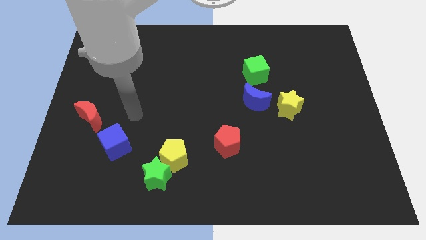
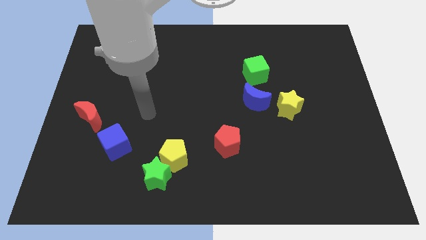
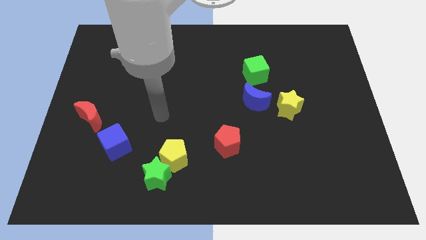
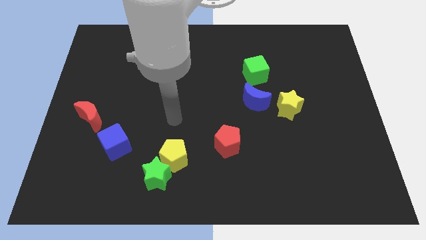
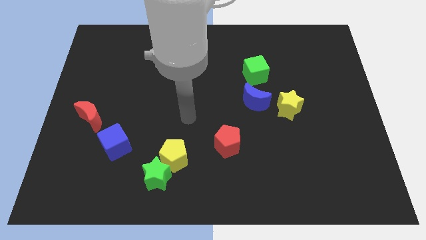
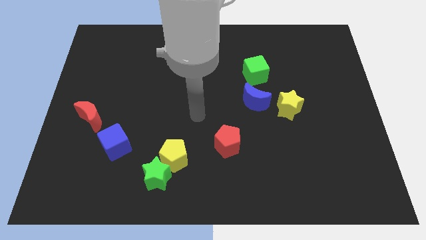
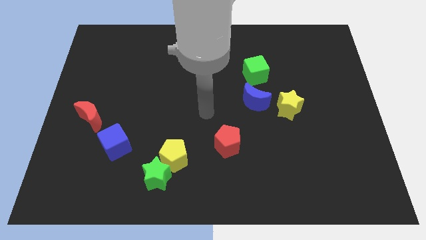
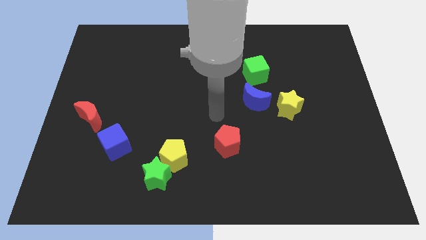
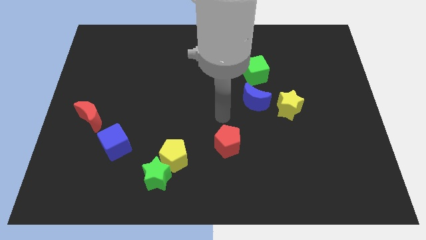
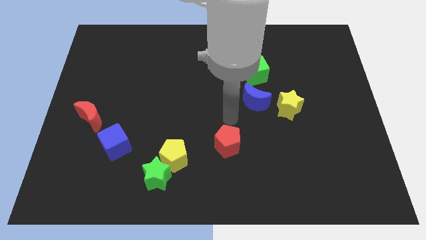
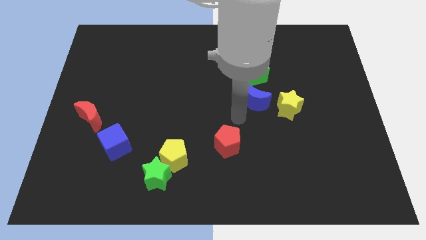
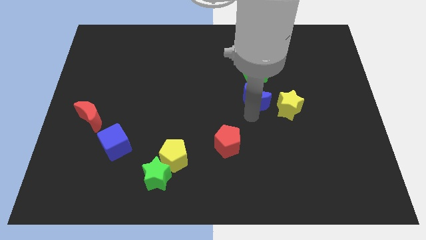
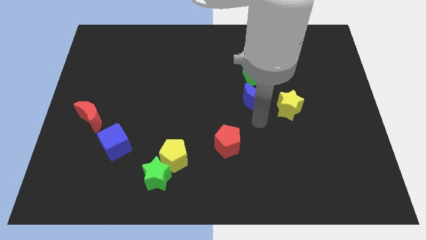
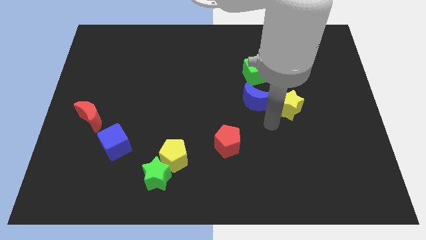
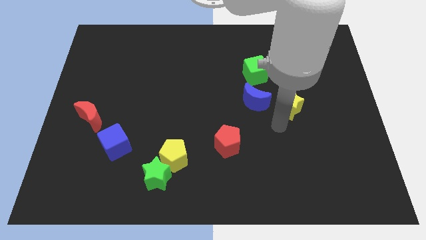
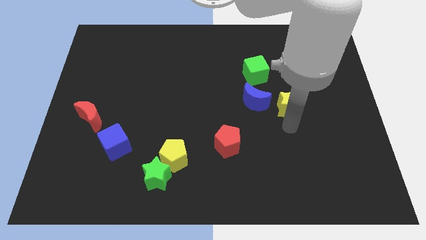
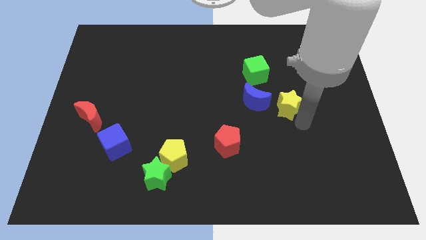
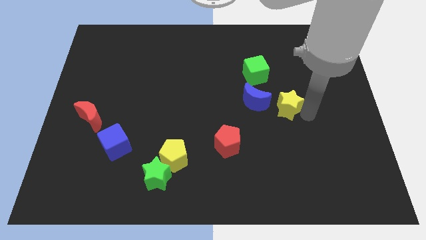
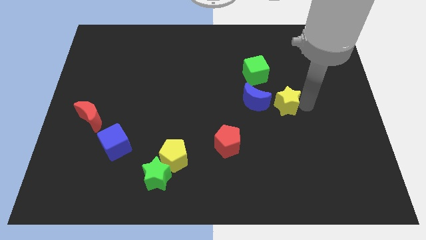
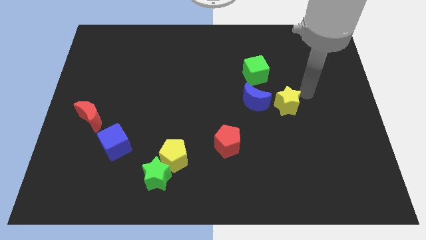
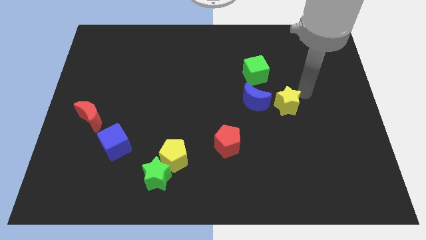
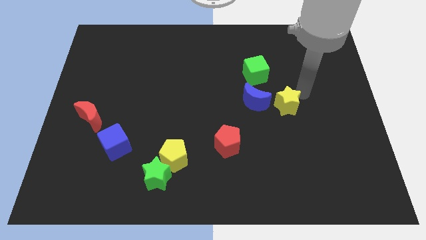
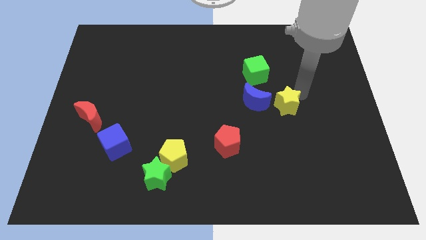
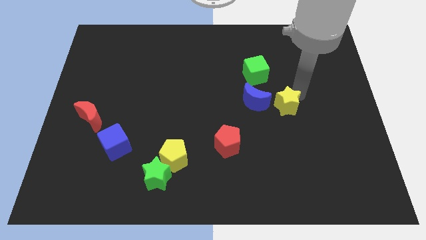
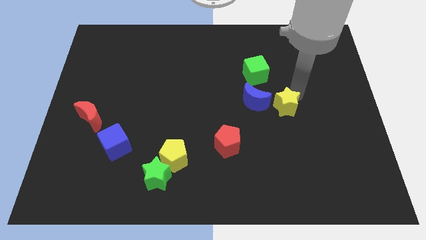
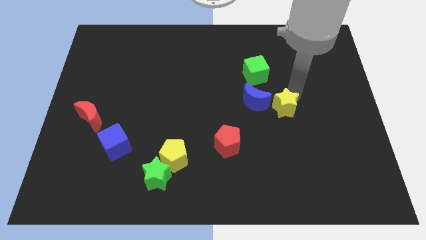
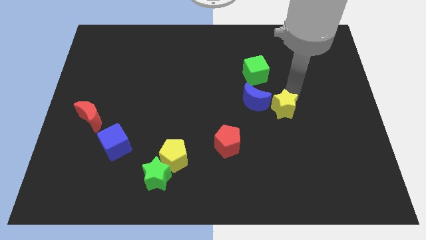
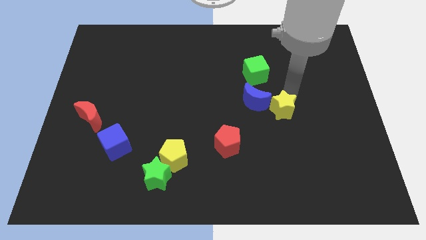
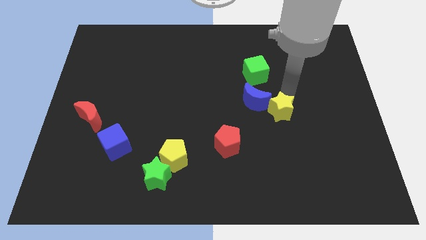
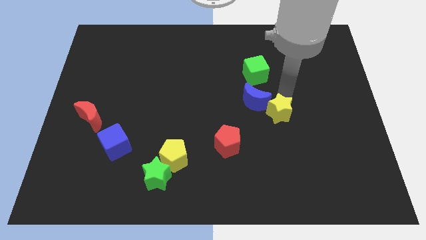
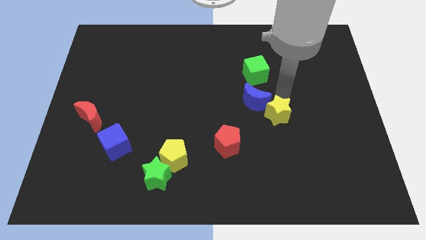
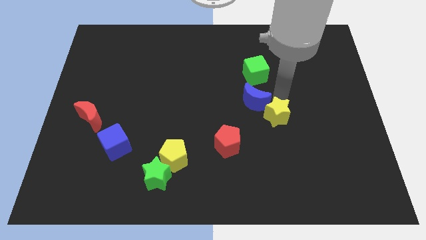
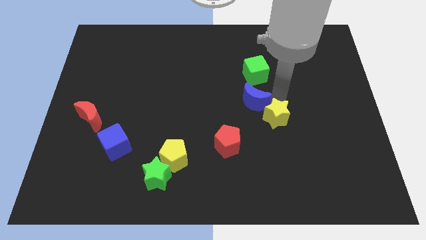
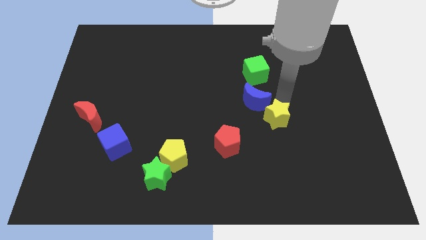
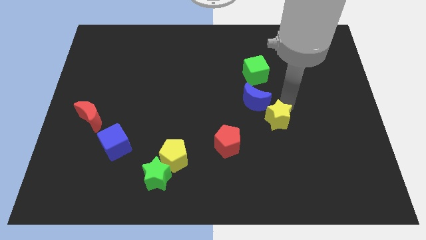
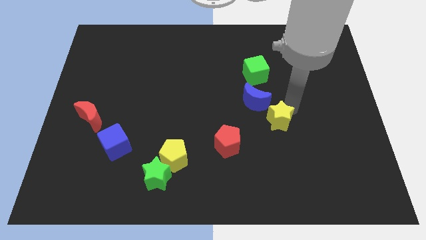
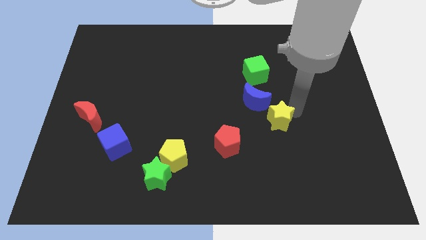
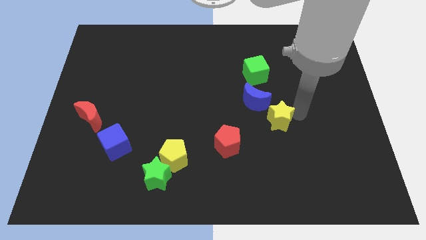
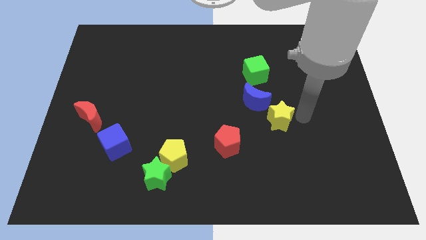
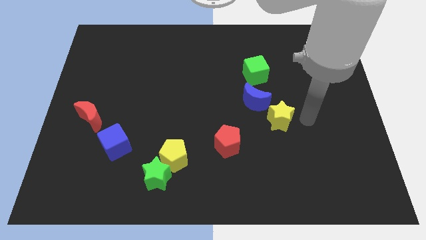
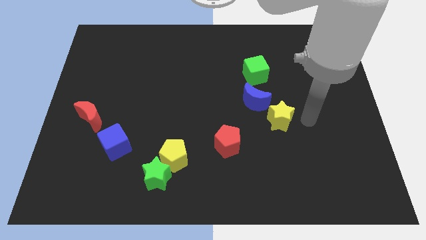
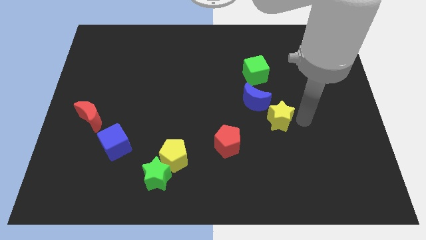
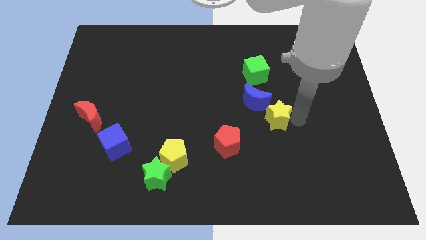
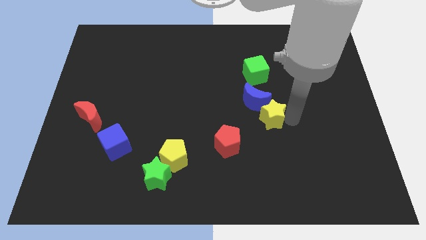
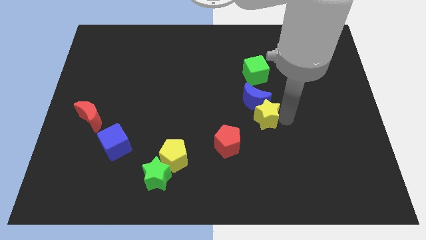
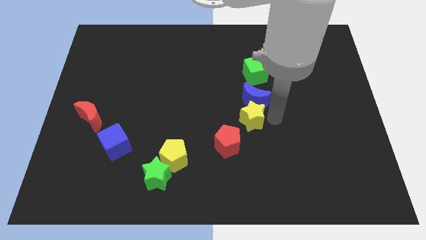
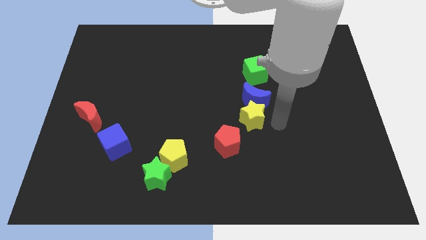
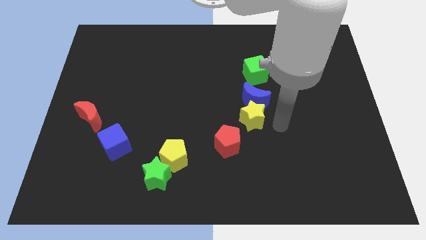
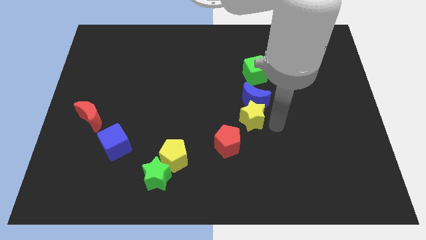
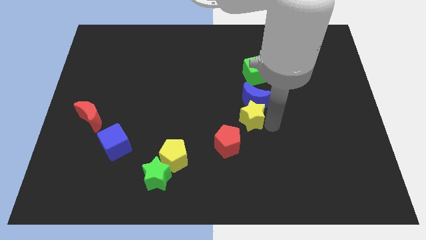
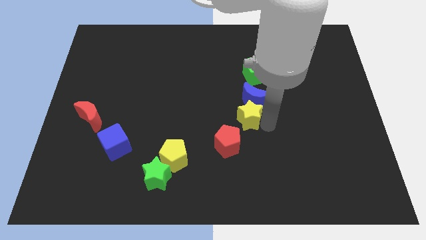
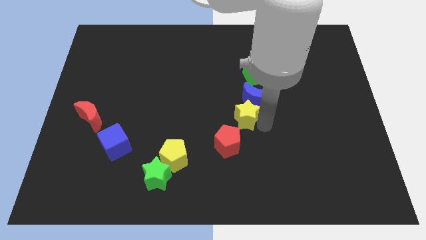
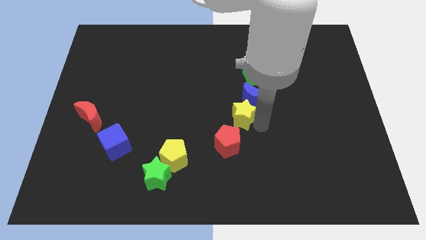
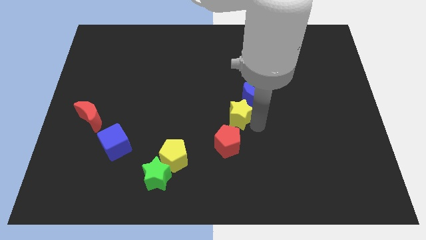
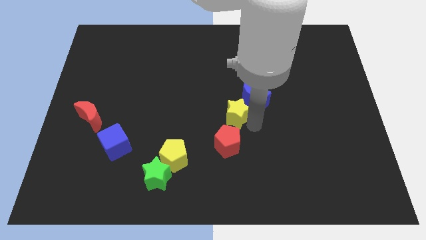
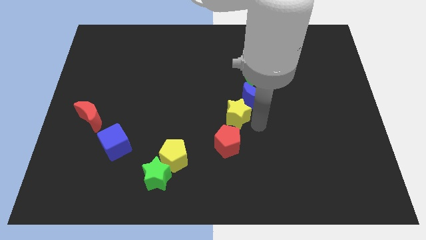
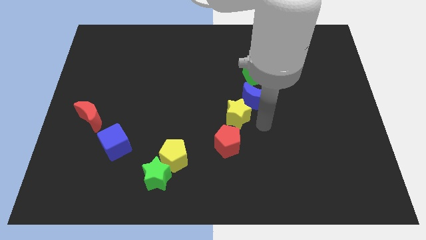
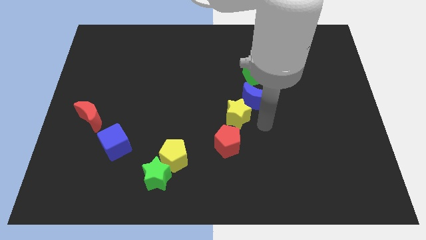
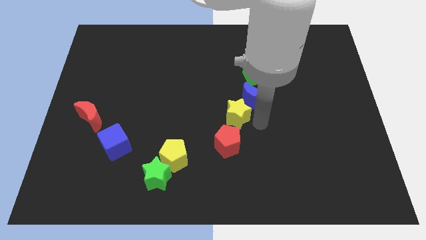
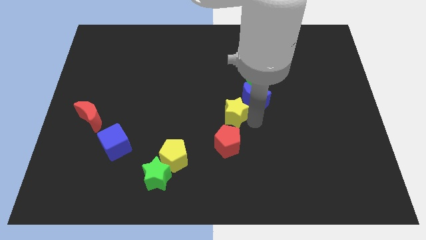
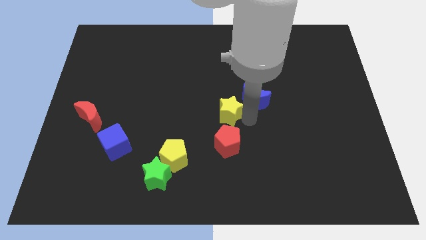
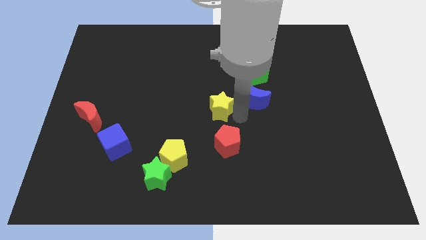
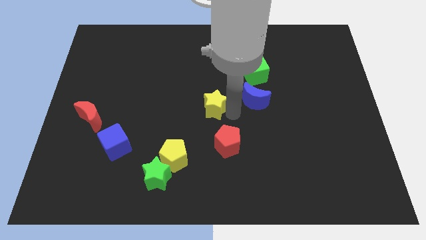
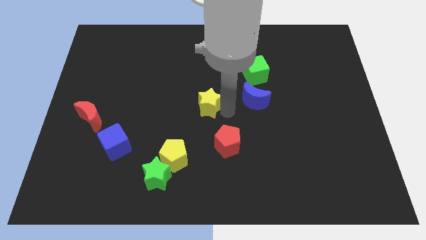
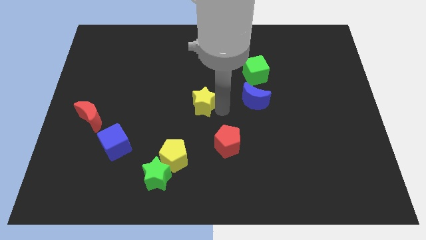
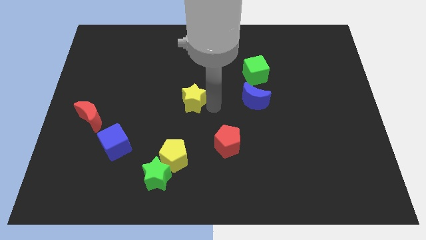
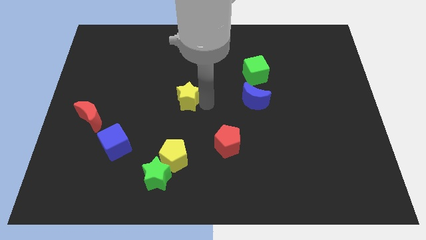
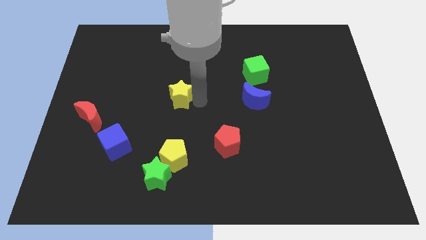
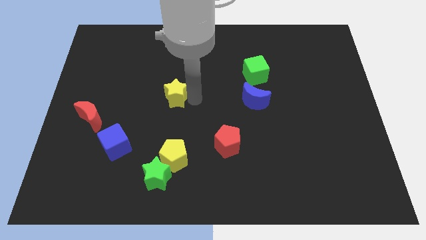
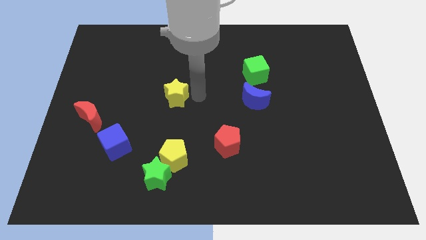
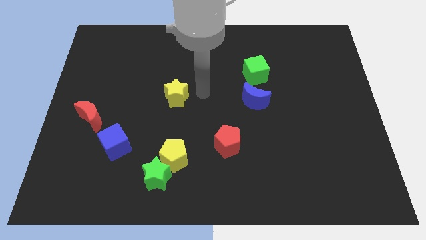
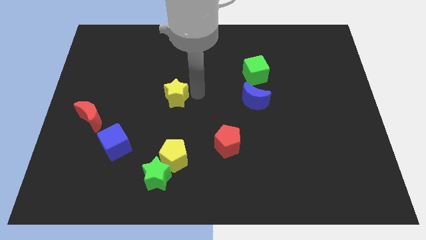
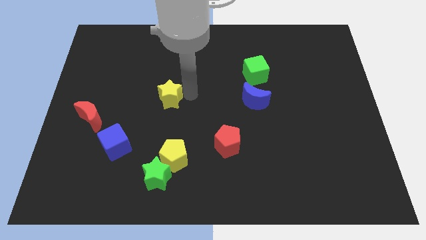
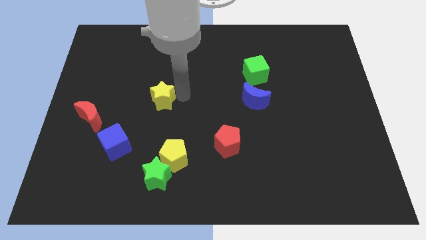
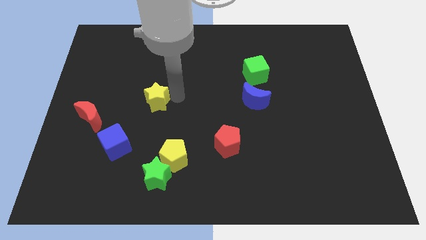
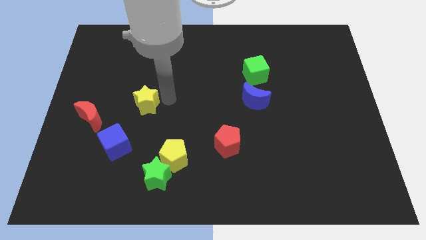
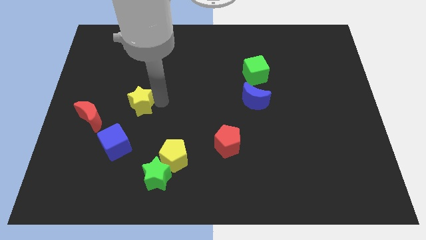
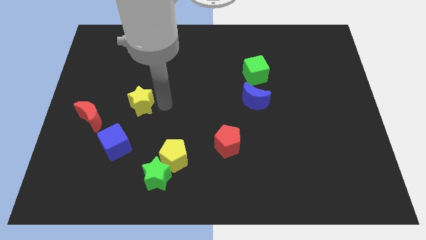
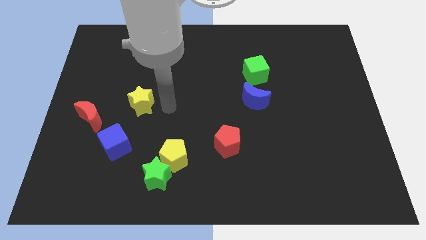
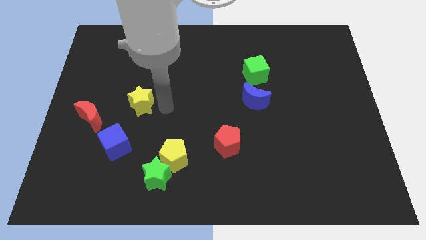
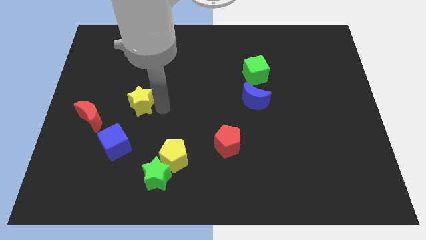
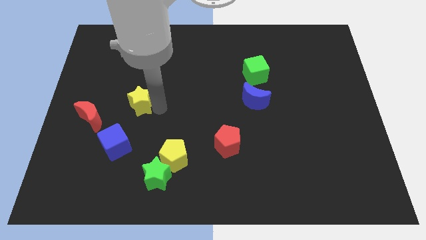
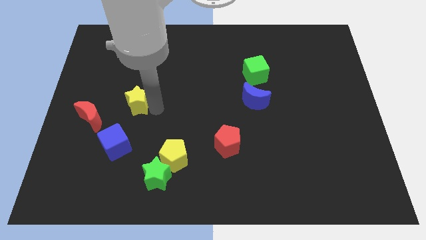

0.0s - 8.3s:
push the yellow star to the top right side of the red moon
